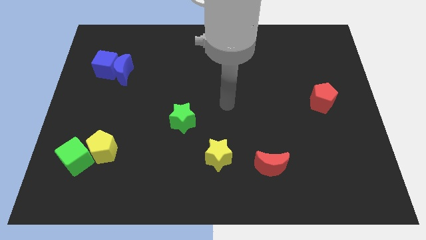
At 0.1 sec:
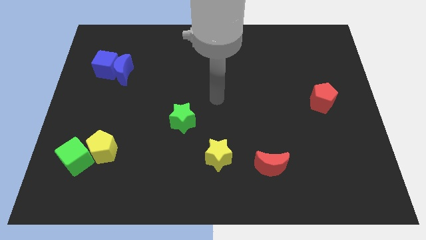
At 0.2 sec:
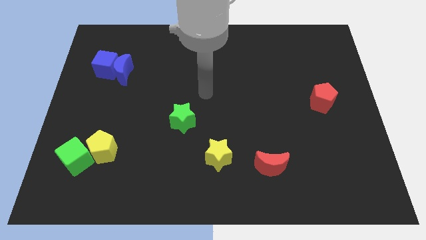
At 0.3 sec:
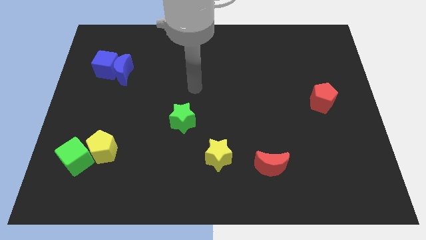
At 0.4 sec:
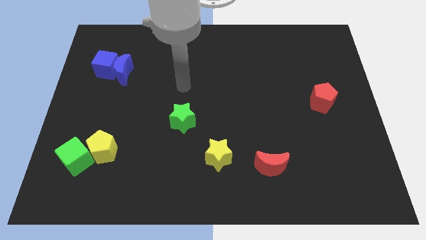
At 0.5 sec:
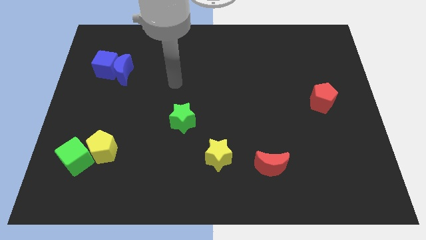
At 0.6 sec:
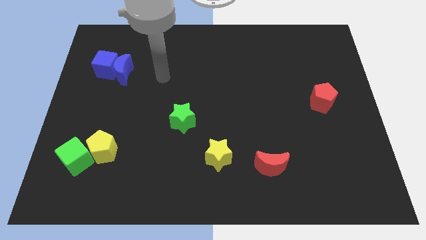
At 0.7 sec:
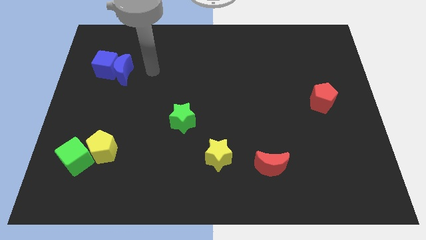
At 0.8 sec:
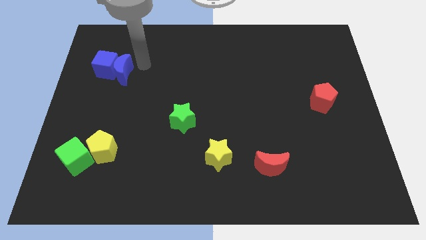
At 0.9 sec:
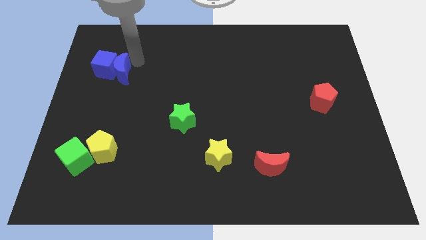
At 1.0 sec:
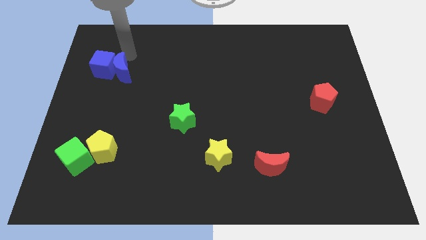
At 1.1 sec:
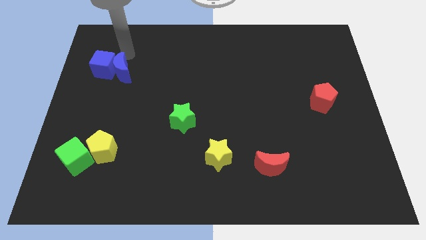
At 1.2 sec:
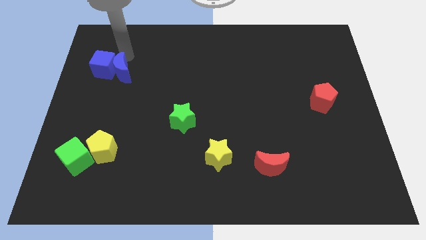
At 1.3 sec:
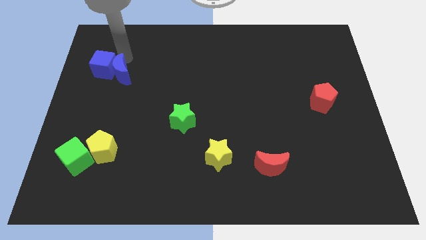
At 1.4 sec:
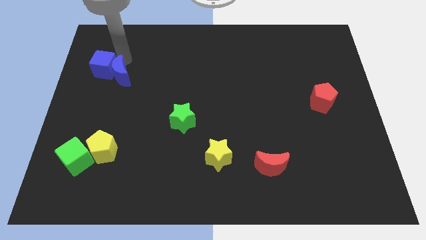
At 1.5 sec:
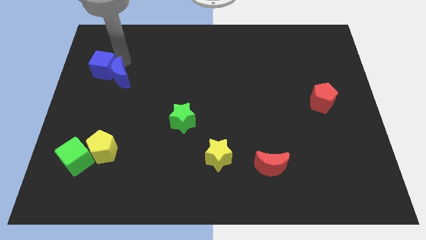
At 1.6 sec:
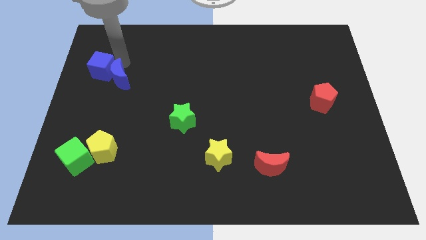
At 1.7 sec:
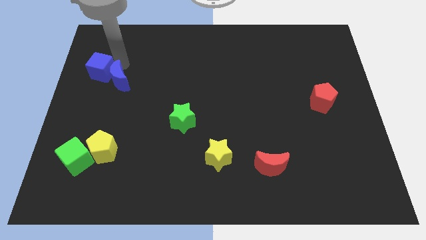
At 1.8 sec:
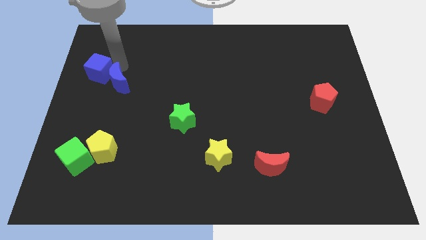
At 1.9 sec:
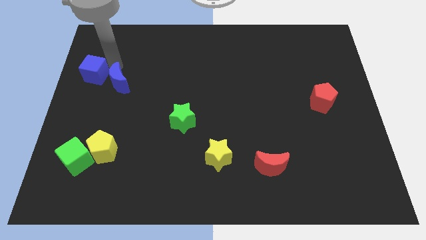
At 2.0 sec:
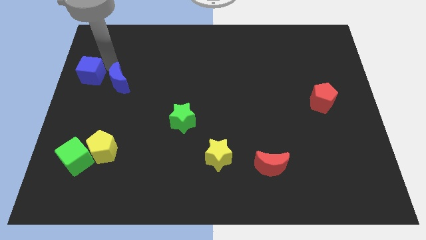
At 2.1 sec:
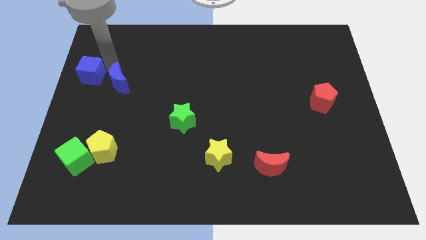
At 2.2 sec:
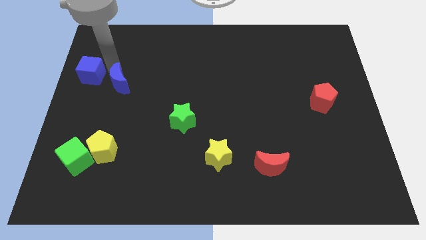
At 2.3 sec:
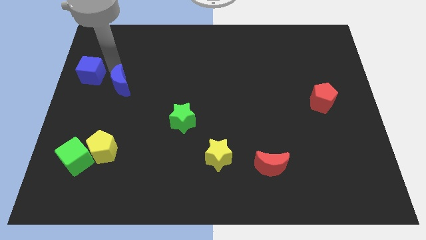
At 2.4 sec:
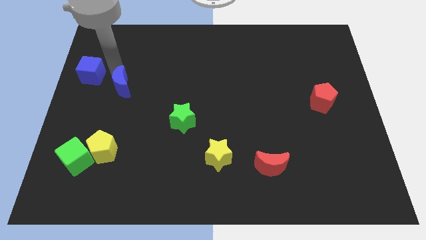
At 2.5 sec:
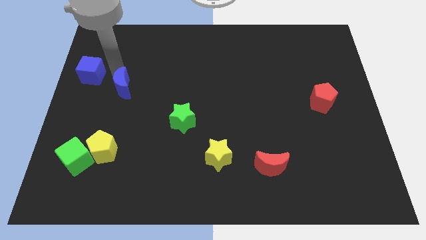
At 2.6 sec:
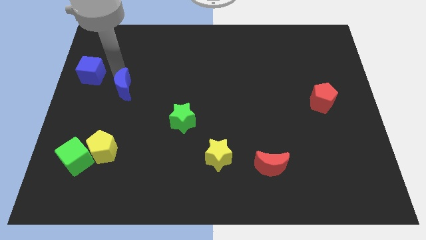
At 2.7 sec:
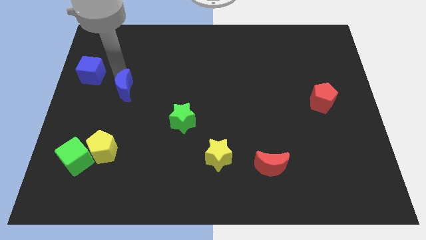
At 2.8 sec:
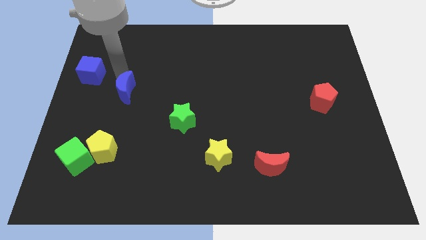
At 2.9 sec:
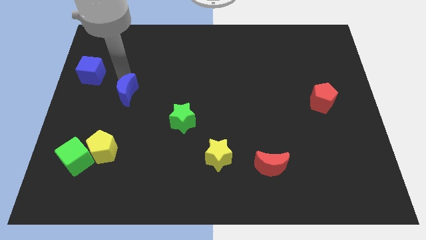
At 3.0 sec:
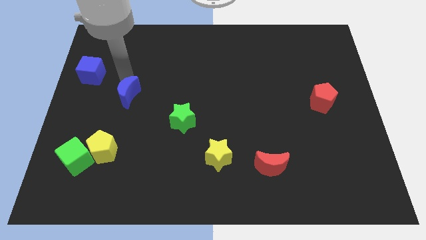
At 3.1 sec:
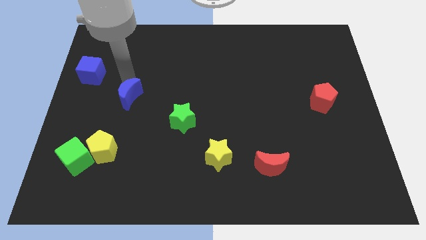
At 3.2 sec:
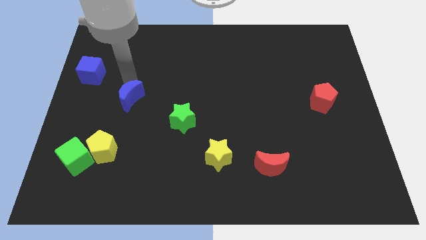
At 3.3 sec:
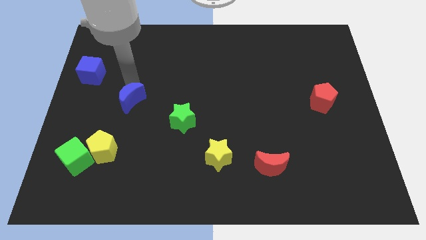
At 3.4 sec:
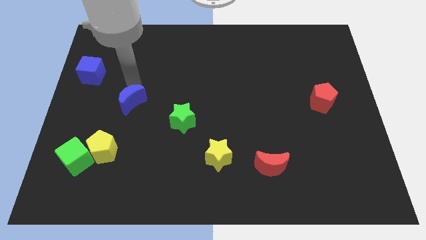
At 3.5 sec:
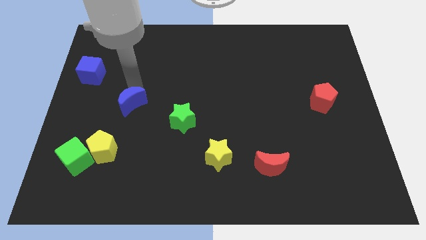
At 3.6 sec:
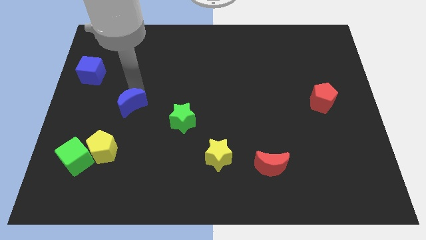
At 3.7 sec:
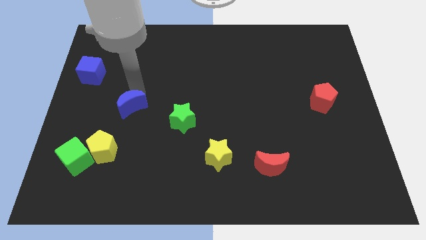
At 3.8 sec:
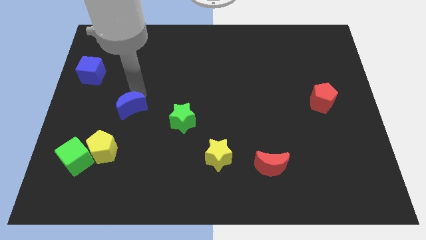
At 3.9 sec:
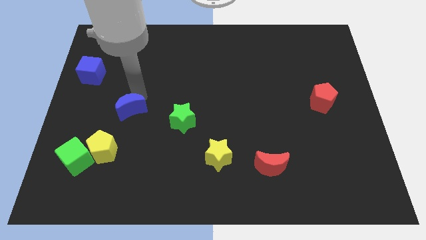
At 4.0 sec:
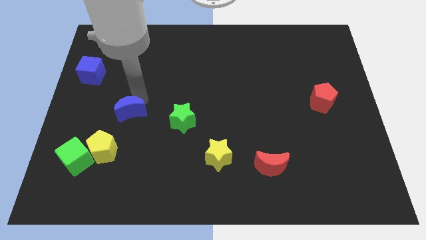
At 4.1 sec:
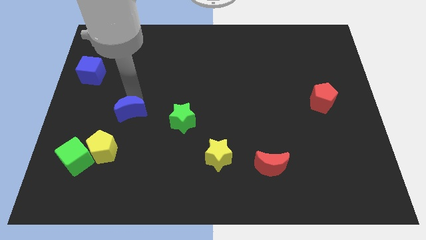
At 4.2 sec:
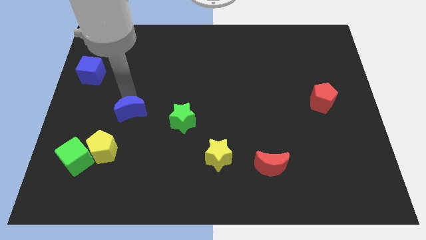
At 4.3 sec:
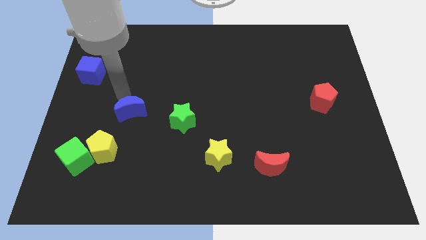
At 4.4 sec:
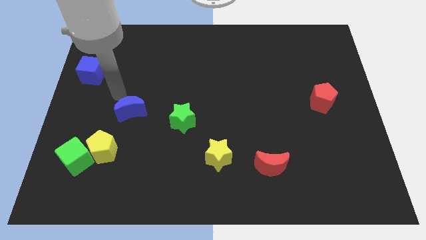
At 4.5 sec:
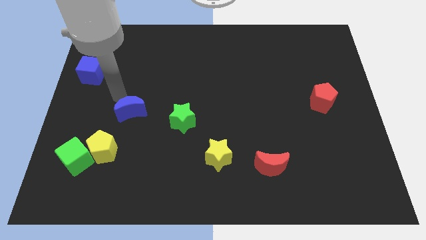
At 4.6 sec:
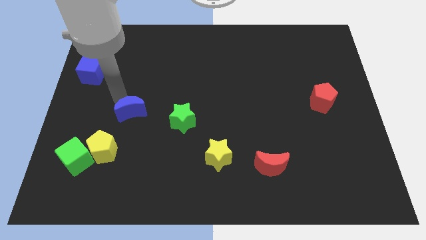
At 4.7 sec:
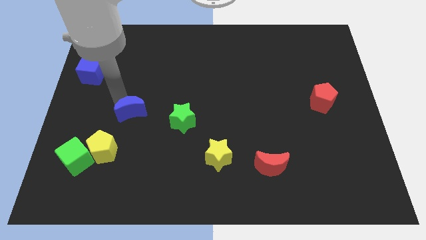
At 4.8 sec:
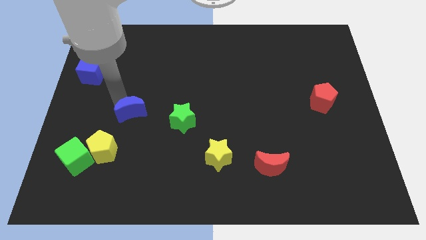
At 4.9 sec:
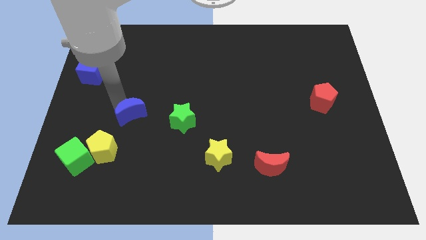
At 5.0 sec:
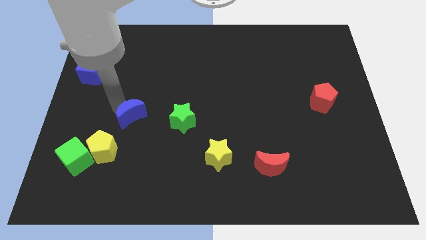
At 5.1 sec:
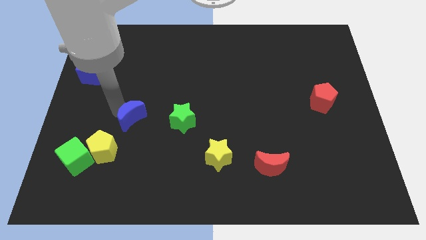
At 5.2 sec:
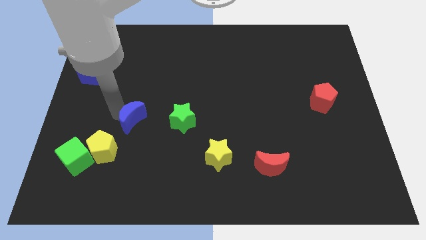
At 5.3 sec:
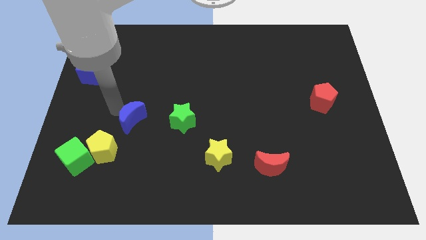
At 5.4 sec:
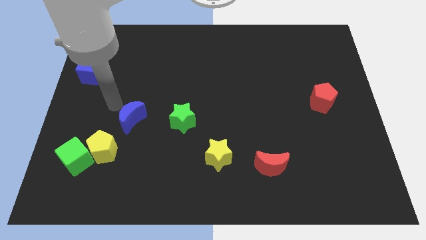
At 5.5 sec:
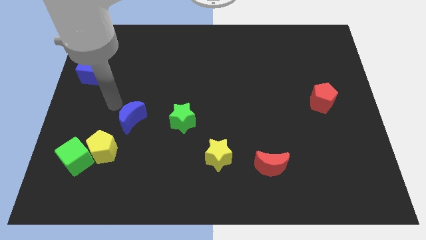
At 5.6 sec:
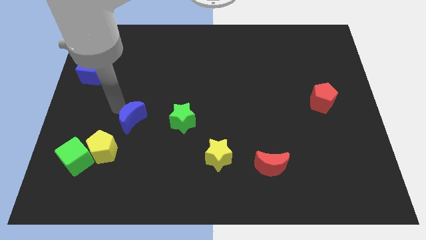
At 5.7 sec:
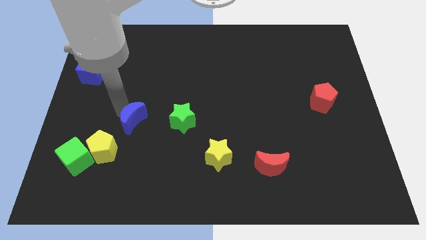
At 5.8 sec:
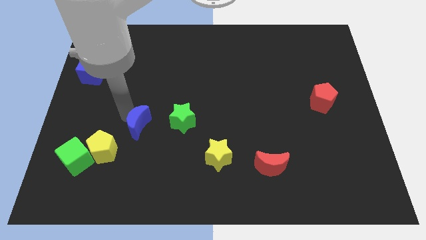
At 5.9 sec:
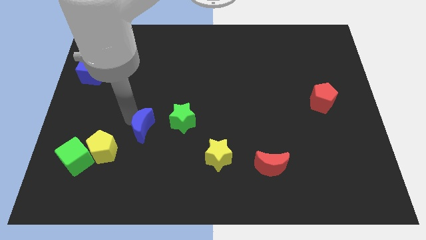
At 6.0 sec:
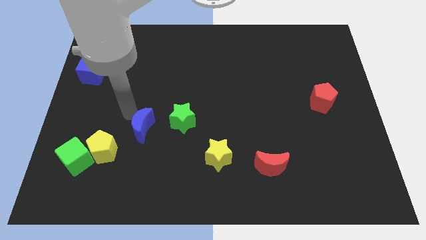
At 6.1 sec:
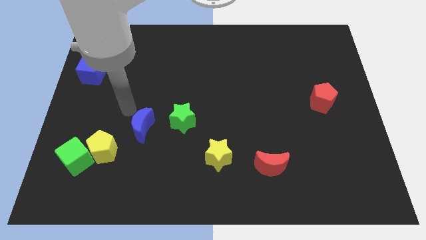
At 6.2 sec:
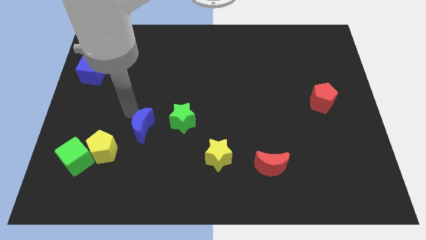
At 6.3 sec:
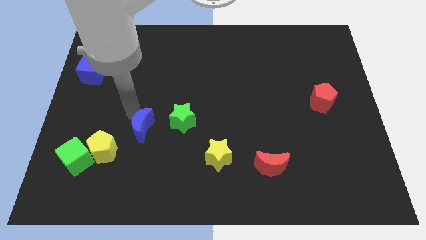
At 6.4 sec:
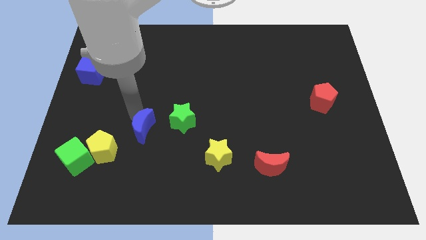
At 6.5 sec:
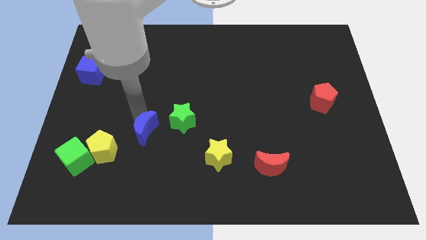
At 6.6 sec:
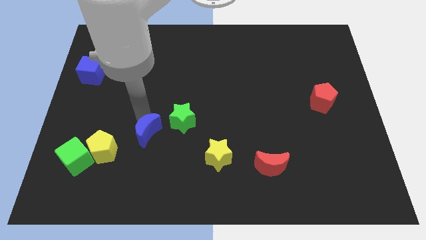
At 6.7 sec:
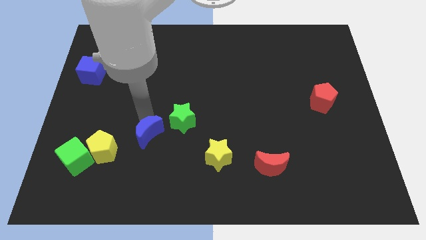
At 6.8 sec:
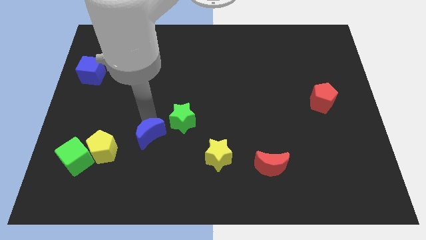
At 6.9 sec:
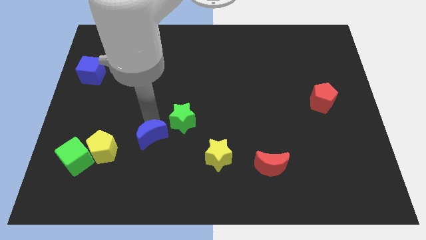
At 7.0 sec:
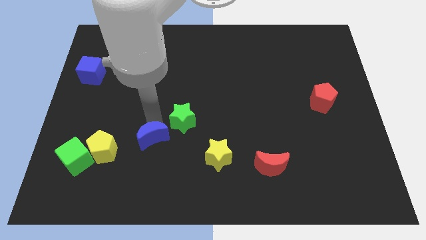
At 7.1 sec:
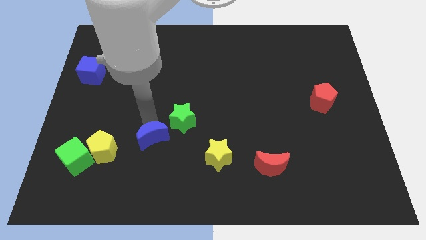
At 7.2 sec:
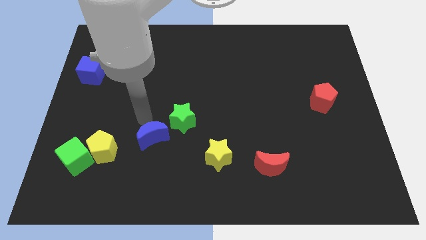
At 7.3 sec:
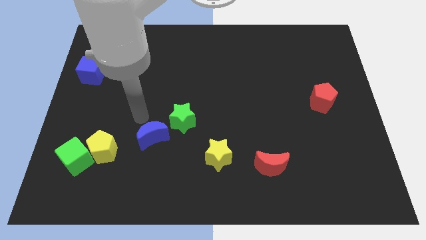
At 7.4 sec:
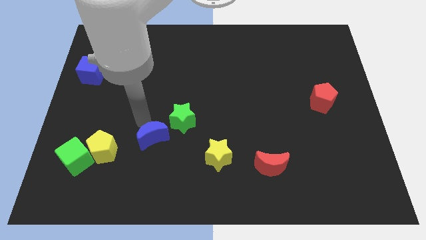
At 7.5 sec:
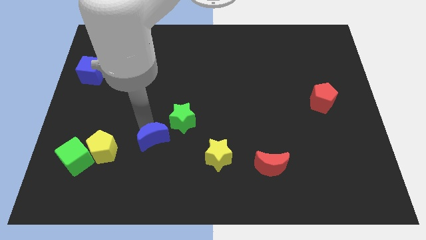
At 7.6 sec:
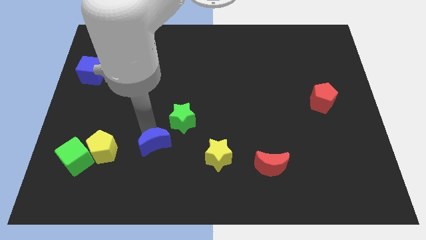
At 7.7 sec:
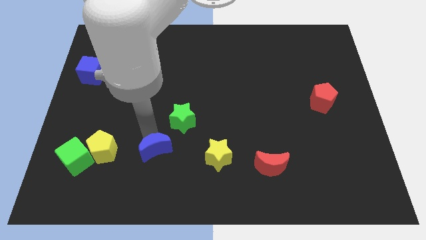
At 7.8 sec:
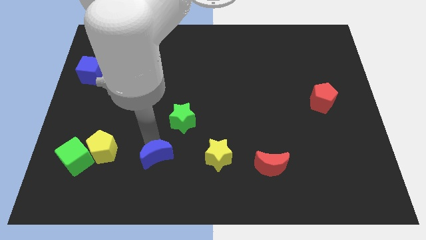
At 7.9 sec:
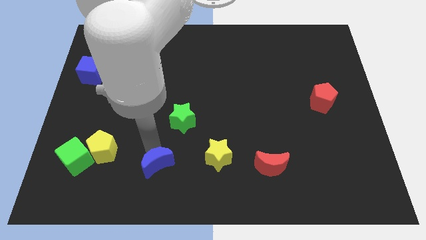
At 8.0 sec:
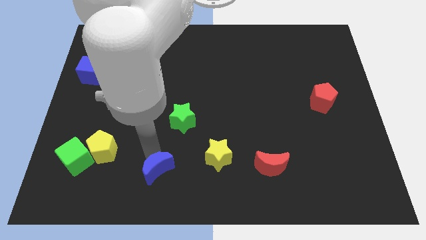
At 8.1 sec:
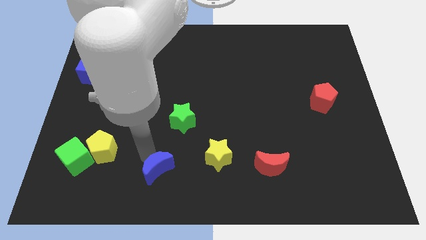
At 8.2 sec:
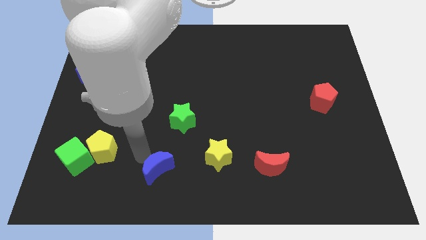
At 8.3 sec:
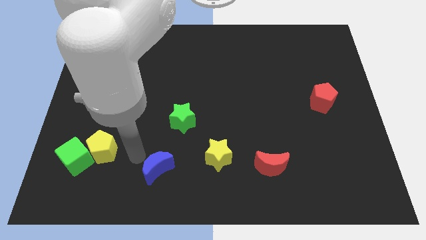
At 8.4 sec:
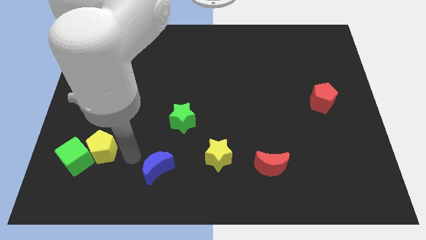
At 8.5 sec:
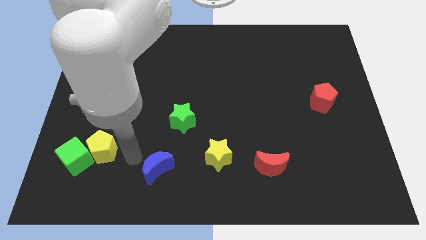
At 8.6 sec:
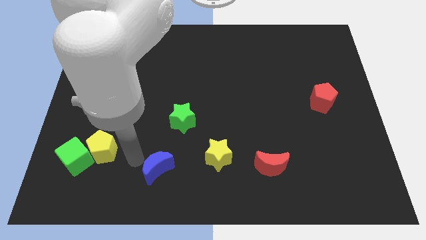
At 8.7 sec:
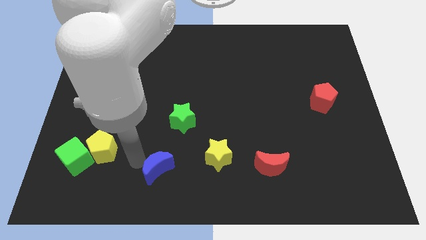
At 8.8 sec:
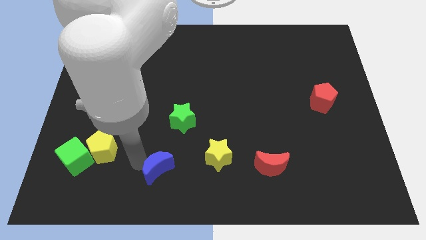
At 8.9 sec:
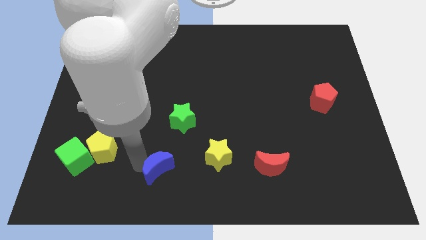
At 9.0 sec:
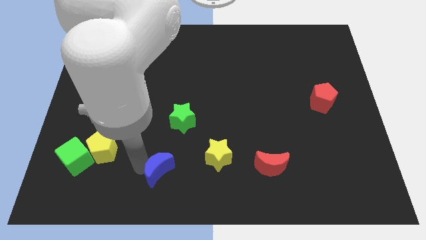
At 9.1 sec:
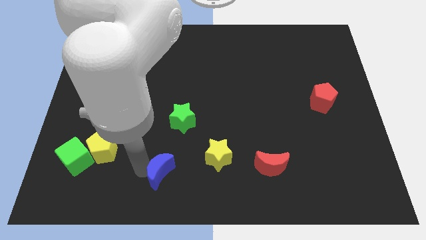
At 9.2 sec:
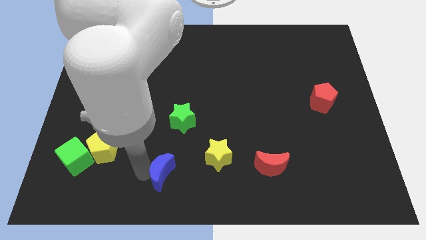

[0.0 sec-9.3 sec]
slide the blue moon to the bottom side
